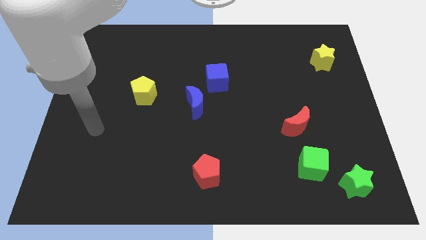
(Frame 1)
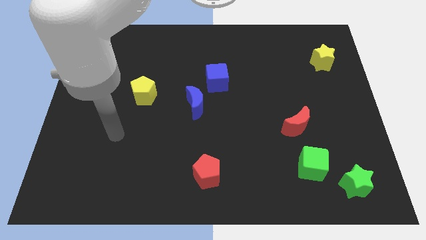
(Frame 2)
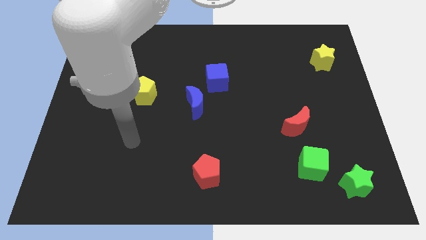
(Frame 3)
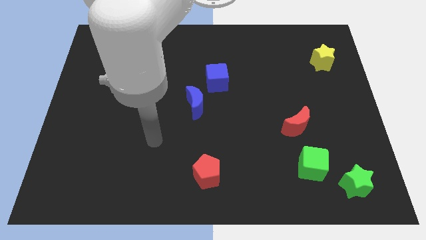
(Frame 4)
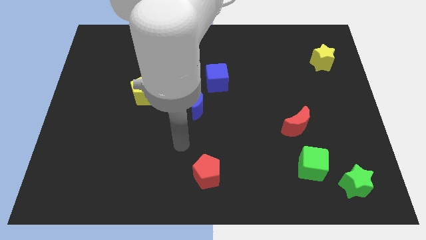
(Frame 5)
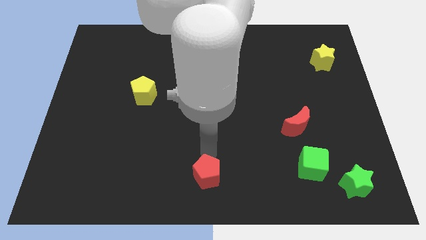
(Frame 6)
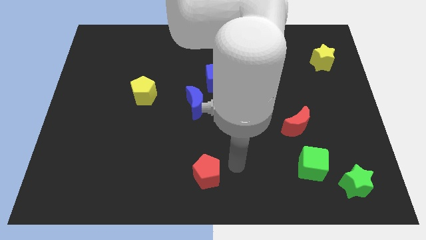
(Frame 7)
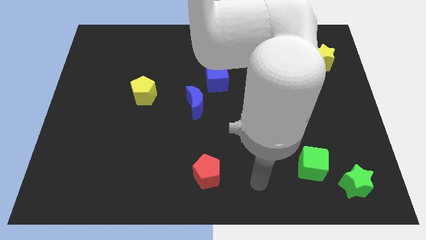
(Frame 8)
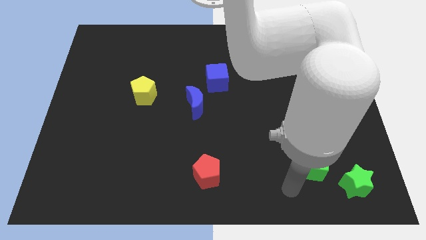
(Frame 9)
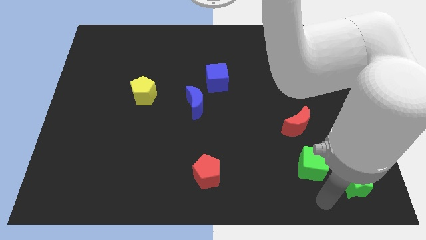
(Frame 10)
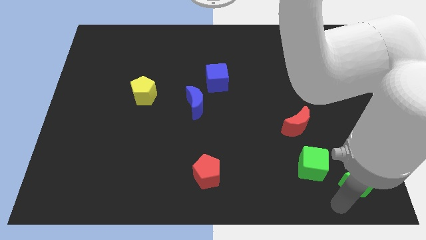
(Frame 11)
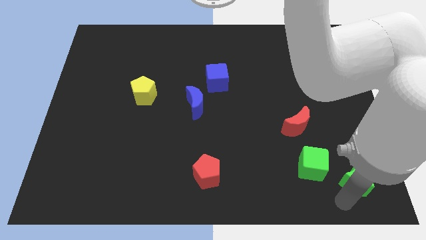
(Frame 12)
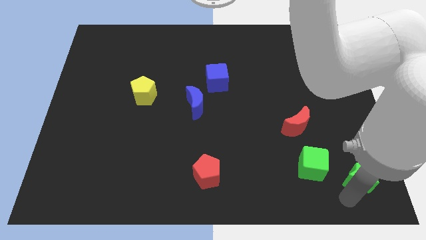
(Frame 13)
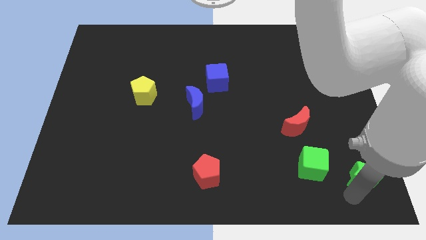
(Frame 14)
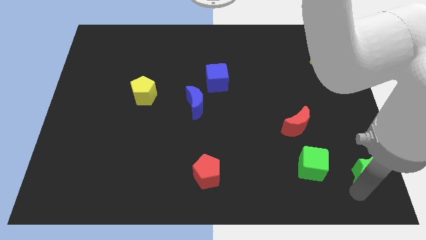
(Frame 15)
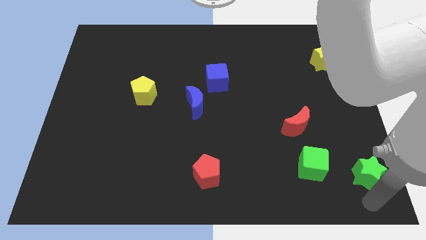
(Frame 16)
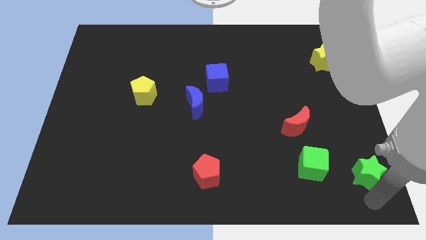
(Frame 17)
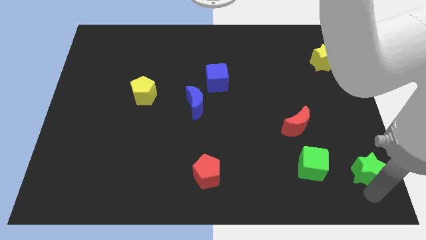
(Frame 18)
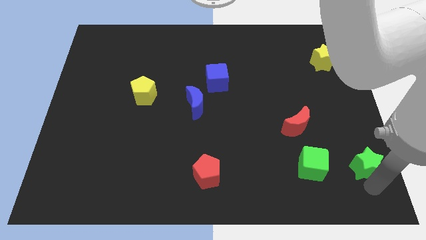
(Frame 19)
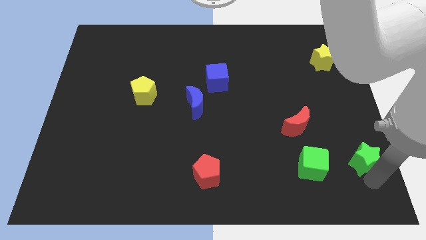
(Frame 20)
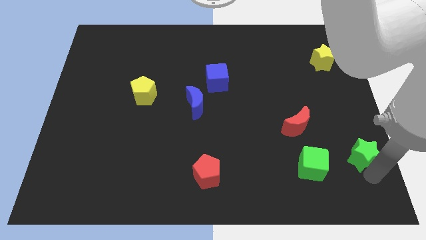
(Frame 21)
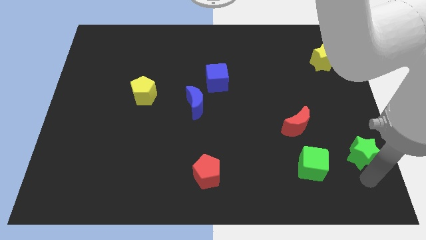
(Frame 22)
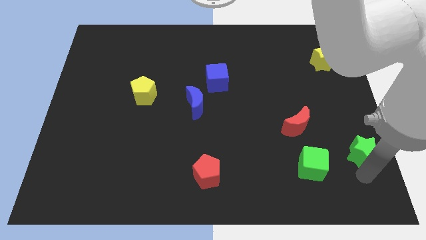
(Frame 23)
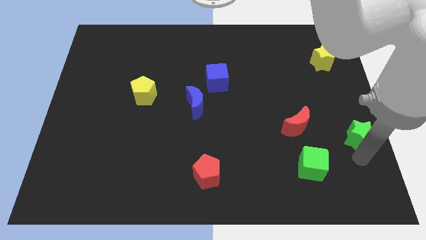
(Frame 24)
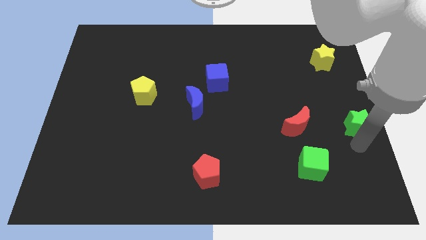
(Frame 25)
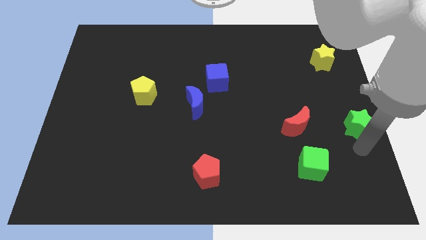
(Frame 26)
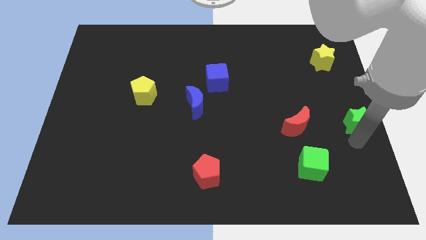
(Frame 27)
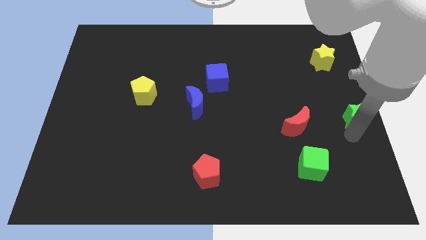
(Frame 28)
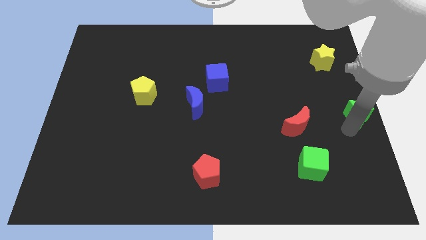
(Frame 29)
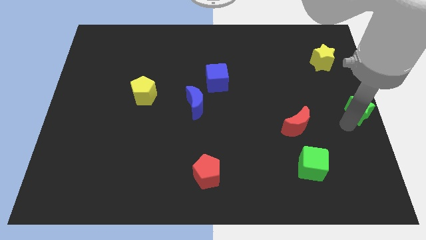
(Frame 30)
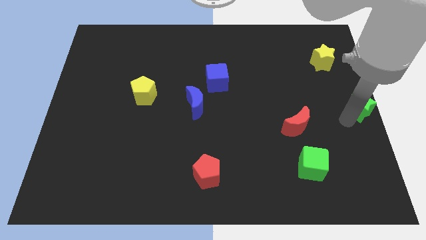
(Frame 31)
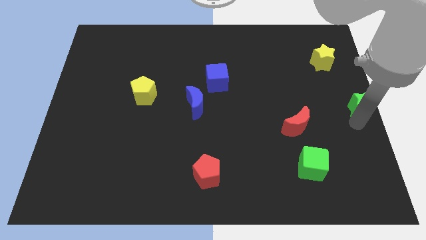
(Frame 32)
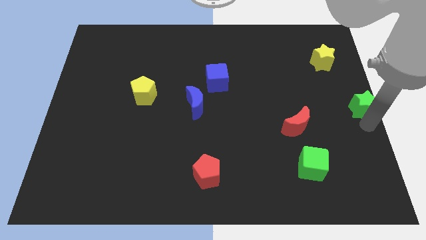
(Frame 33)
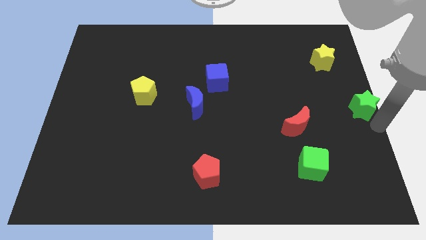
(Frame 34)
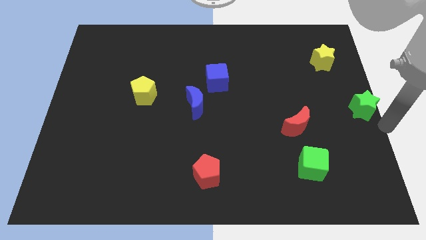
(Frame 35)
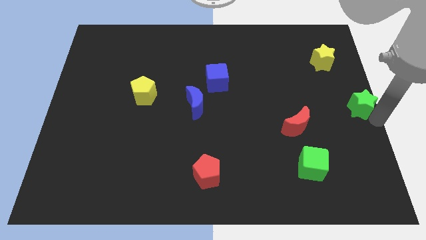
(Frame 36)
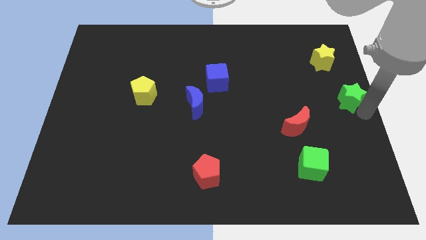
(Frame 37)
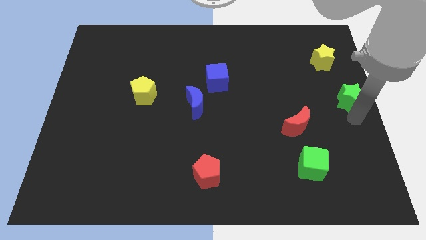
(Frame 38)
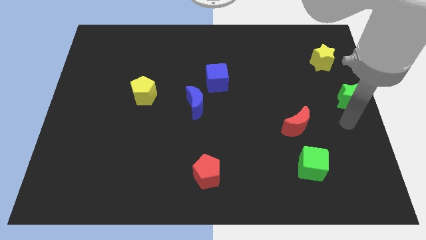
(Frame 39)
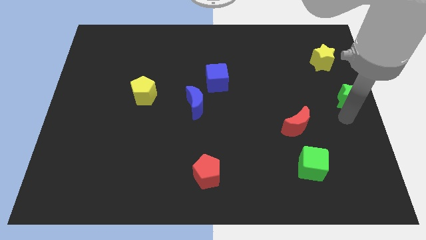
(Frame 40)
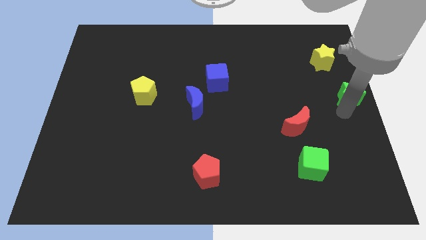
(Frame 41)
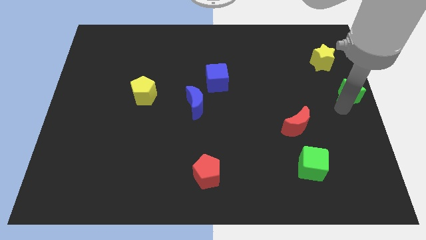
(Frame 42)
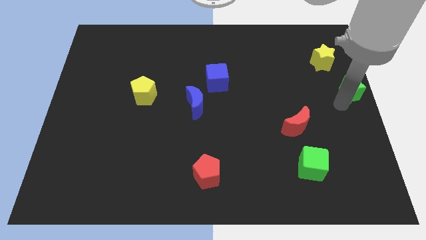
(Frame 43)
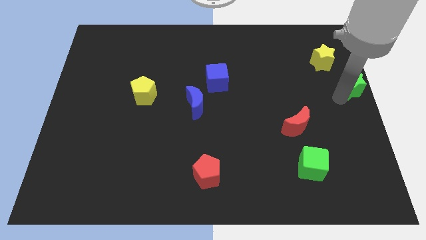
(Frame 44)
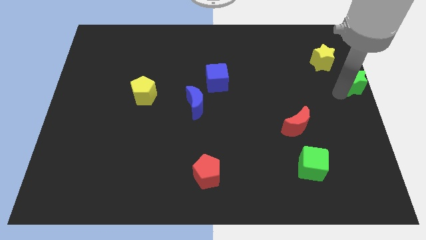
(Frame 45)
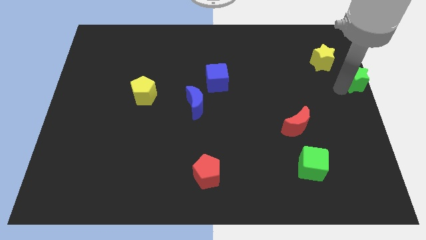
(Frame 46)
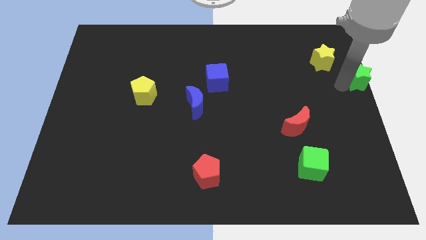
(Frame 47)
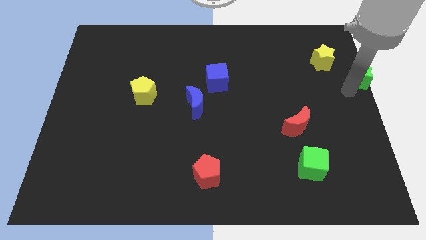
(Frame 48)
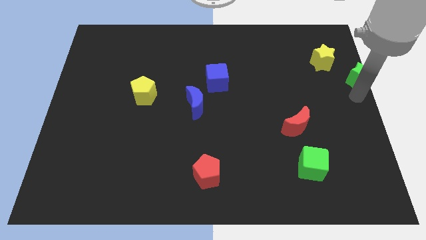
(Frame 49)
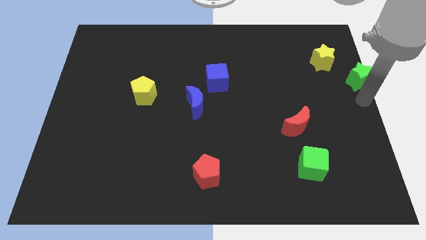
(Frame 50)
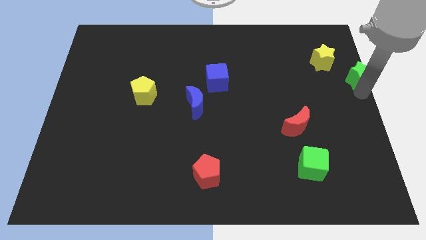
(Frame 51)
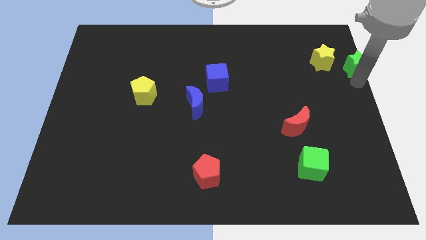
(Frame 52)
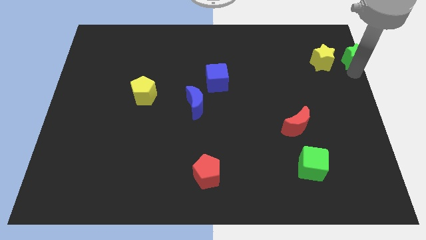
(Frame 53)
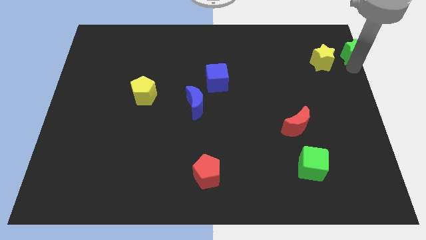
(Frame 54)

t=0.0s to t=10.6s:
move the green star to the top right of the board

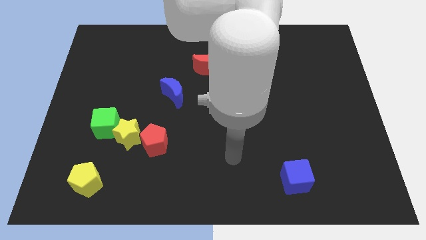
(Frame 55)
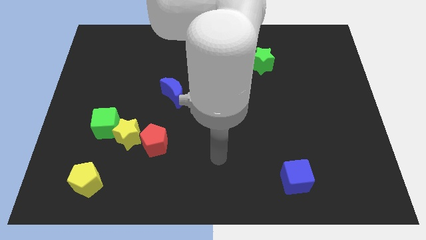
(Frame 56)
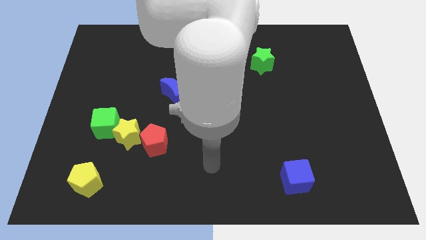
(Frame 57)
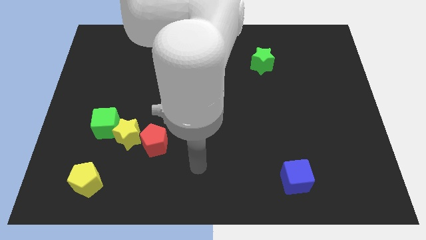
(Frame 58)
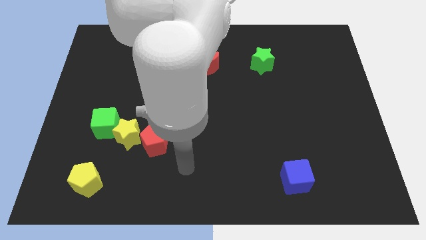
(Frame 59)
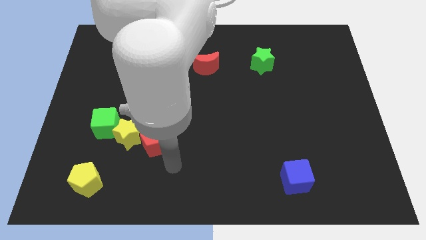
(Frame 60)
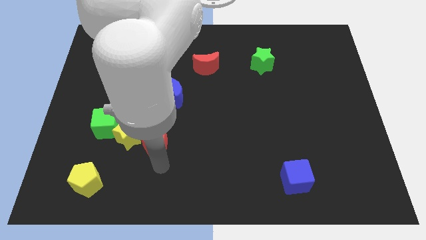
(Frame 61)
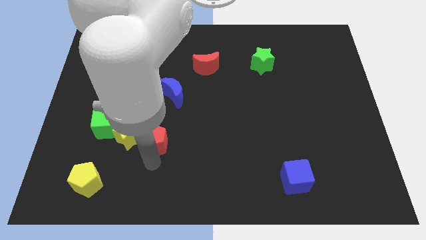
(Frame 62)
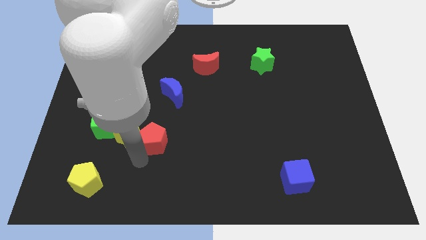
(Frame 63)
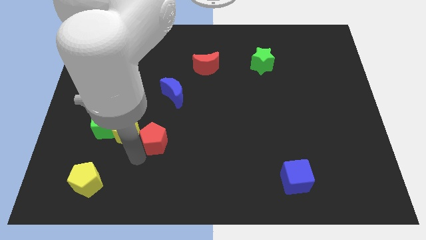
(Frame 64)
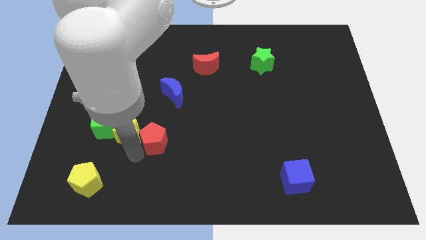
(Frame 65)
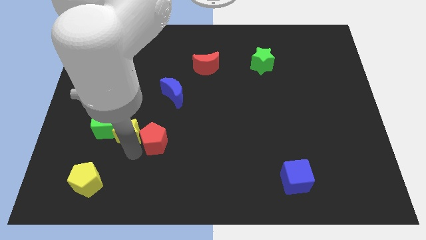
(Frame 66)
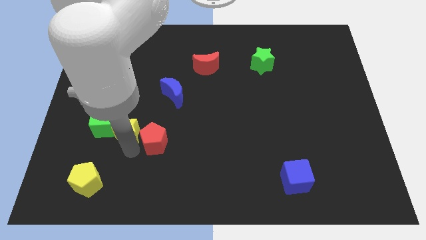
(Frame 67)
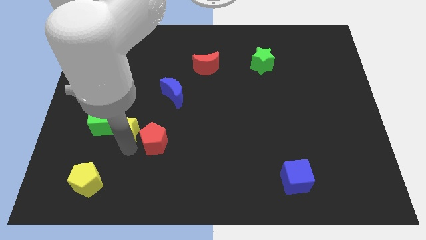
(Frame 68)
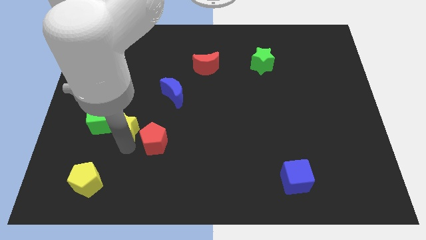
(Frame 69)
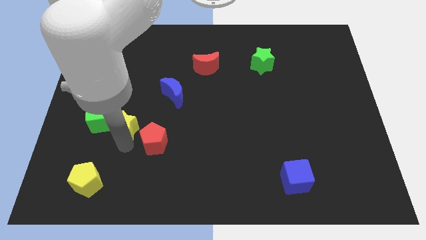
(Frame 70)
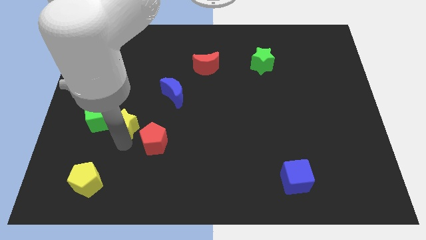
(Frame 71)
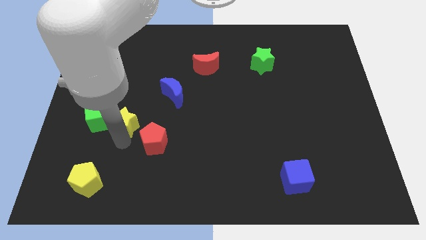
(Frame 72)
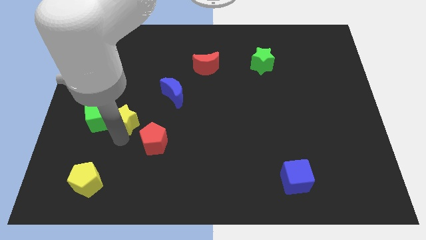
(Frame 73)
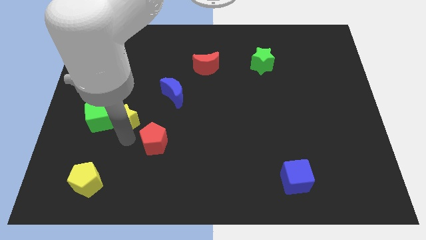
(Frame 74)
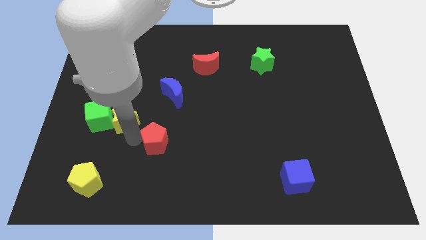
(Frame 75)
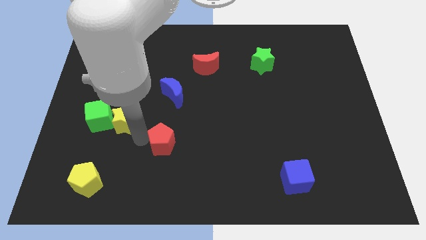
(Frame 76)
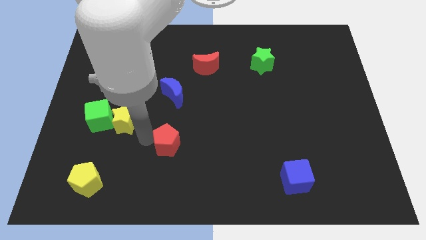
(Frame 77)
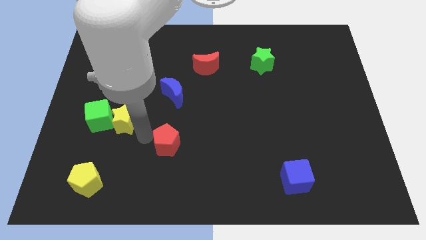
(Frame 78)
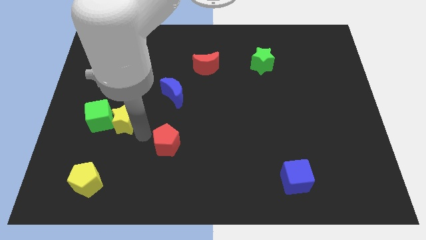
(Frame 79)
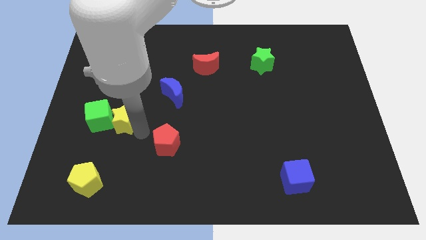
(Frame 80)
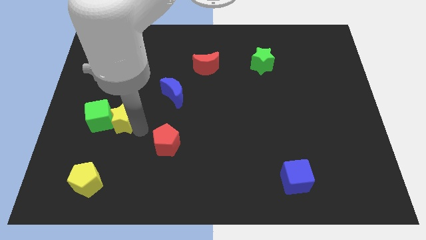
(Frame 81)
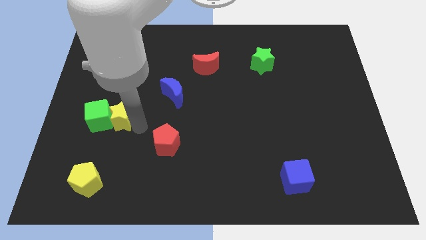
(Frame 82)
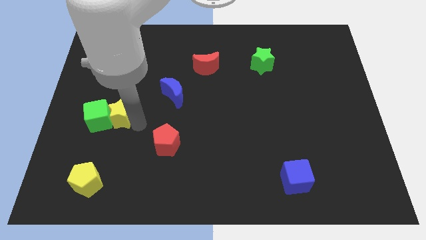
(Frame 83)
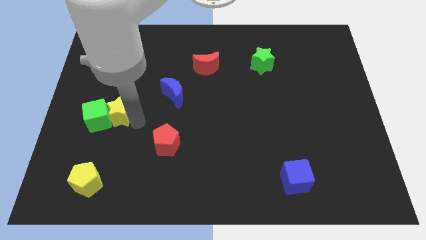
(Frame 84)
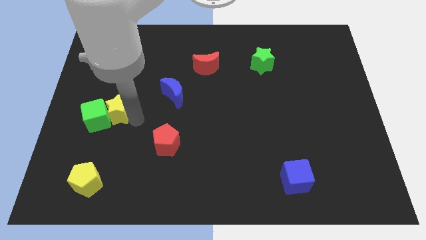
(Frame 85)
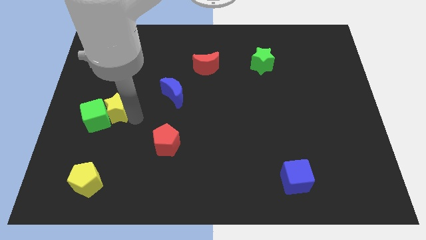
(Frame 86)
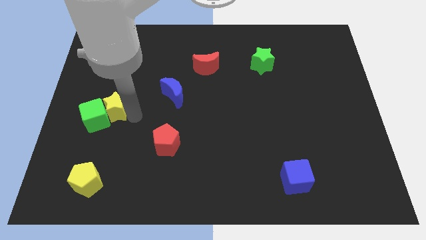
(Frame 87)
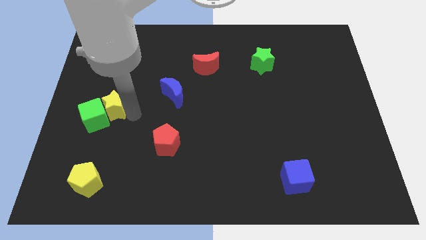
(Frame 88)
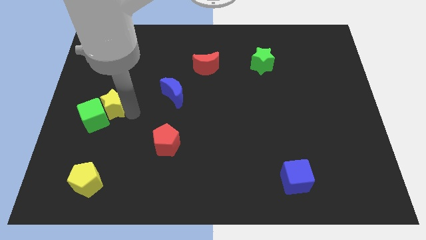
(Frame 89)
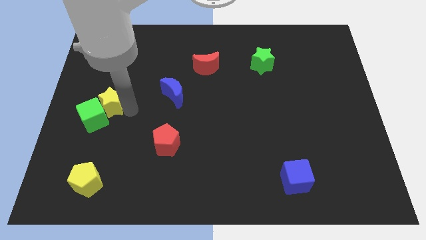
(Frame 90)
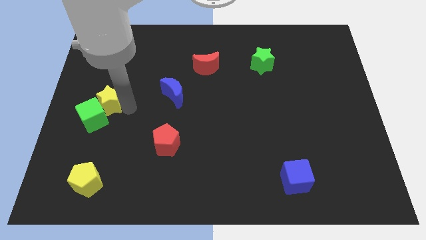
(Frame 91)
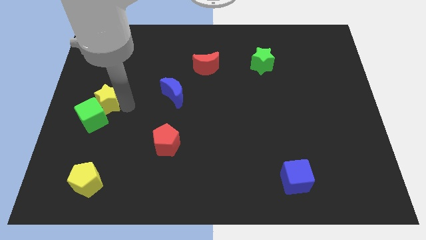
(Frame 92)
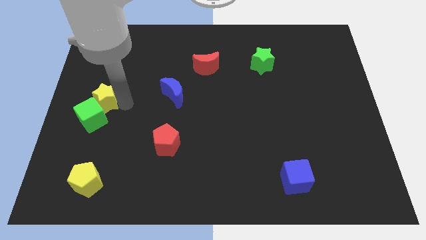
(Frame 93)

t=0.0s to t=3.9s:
slide the yellow star to the left side of the board
